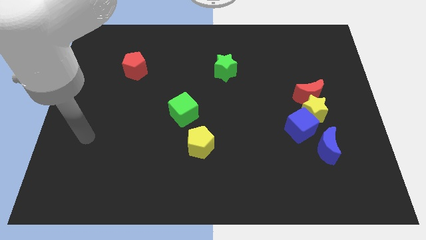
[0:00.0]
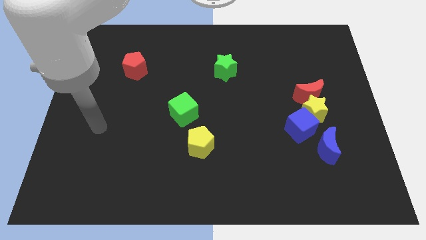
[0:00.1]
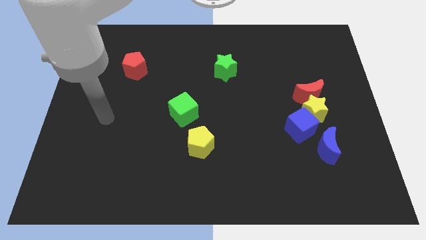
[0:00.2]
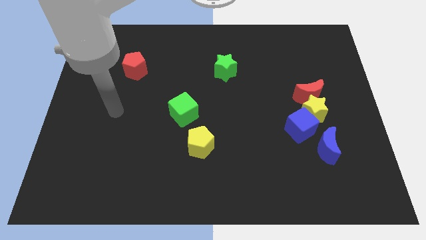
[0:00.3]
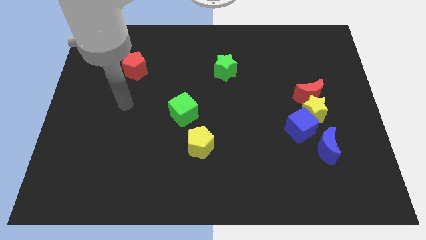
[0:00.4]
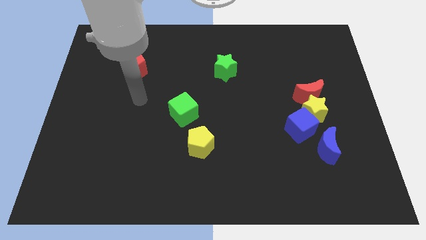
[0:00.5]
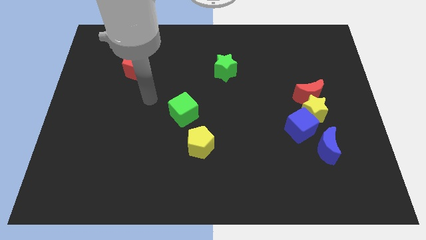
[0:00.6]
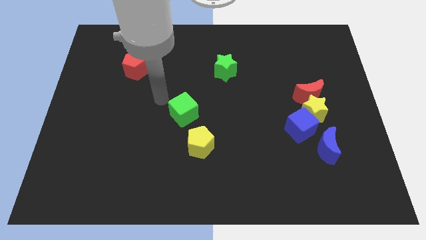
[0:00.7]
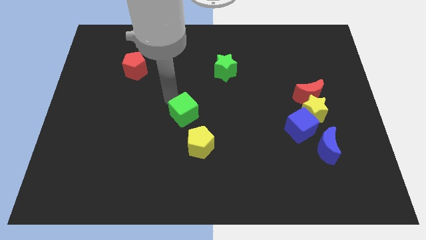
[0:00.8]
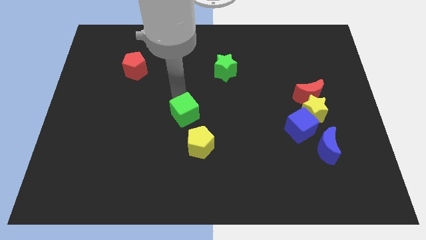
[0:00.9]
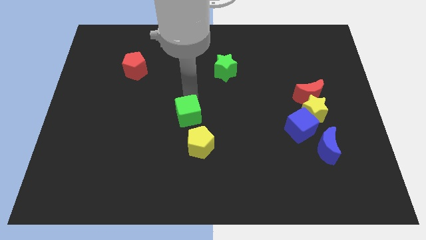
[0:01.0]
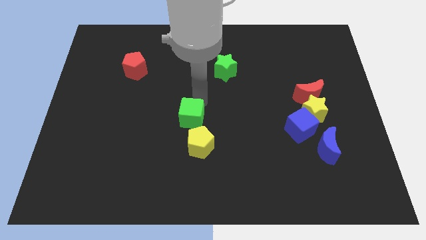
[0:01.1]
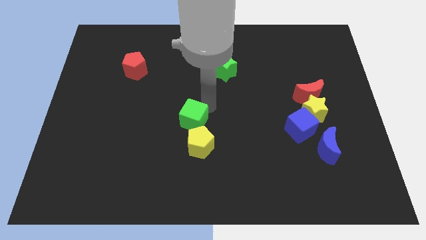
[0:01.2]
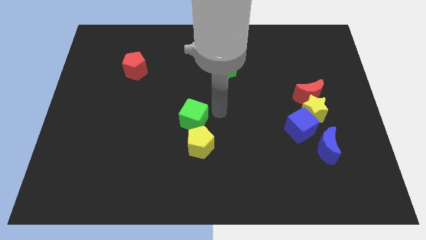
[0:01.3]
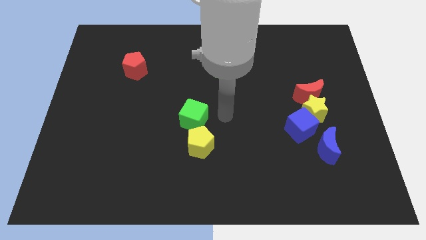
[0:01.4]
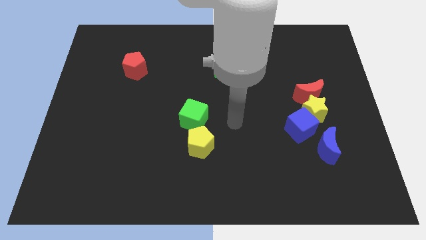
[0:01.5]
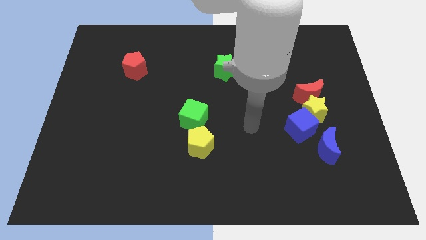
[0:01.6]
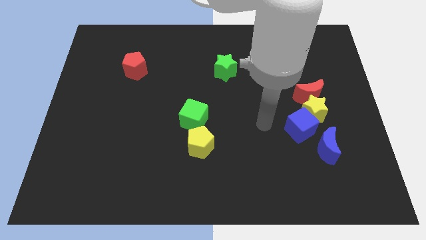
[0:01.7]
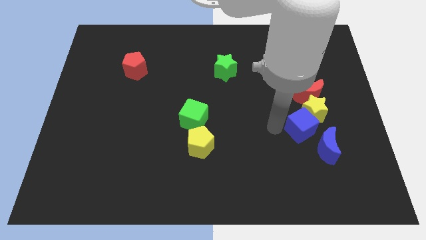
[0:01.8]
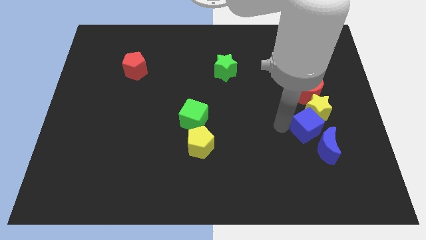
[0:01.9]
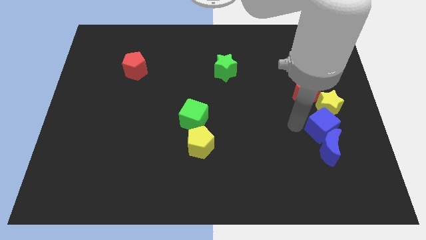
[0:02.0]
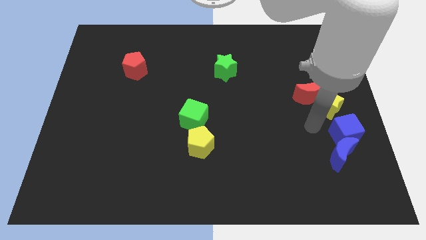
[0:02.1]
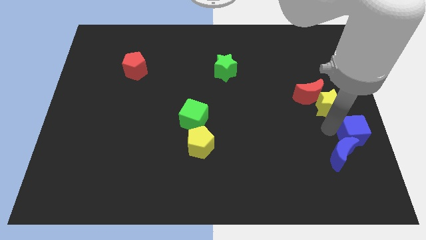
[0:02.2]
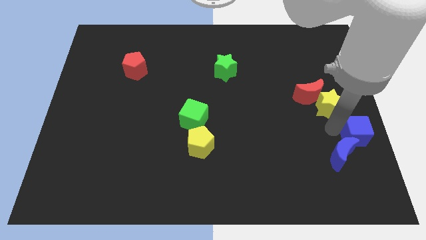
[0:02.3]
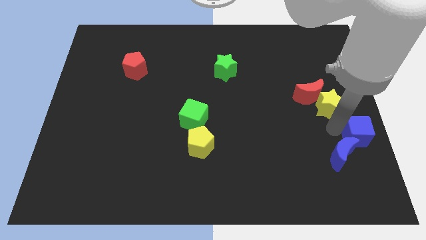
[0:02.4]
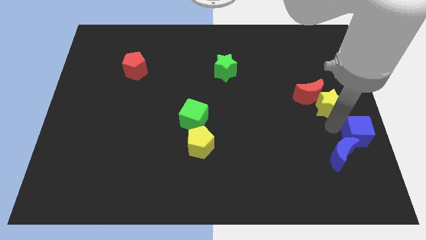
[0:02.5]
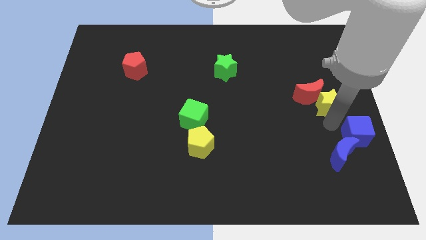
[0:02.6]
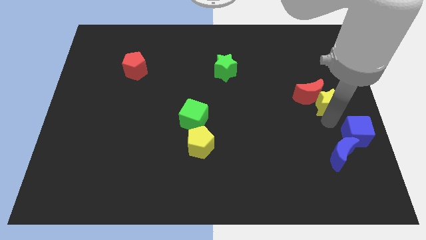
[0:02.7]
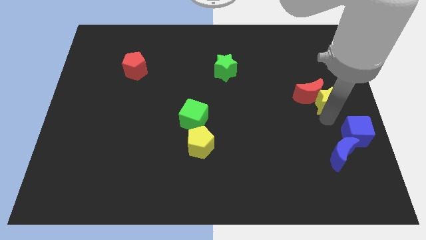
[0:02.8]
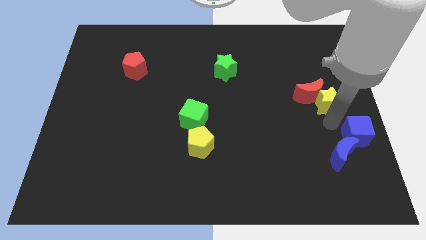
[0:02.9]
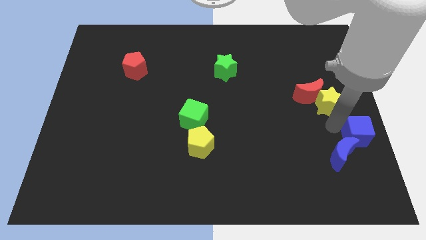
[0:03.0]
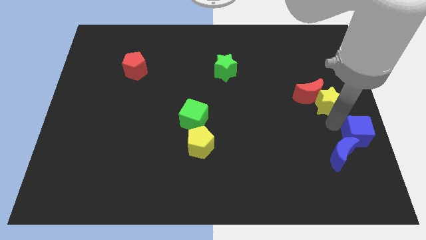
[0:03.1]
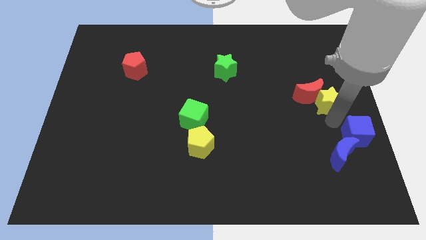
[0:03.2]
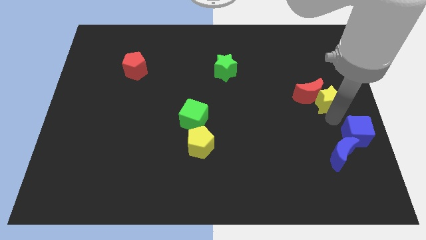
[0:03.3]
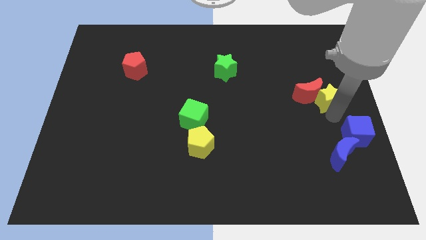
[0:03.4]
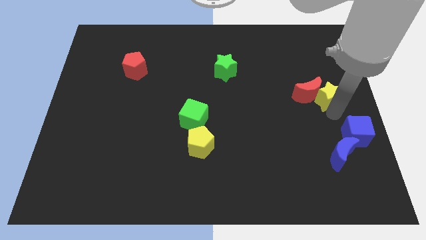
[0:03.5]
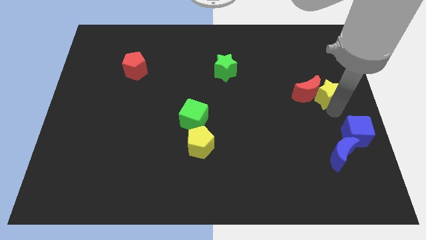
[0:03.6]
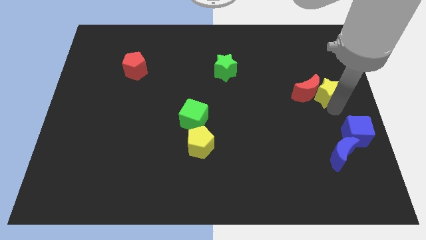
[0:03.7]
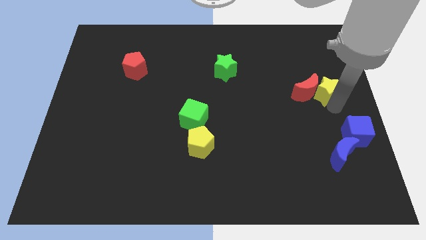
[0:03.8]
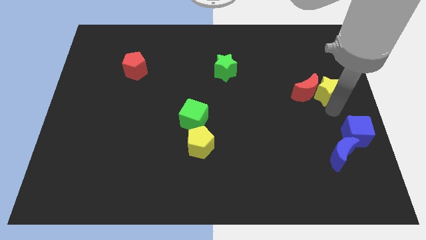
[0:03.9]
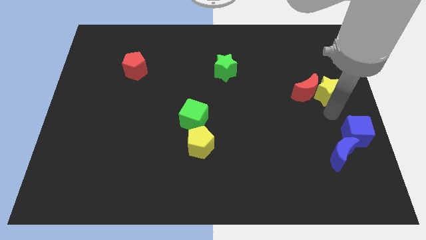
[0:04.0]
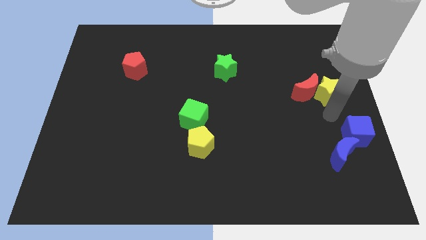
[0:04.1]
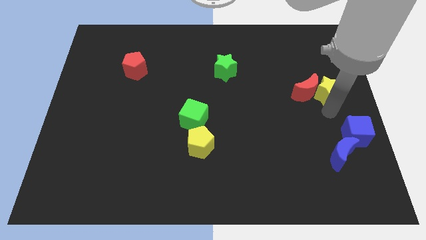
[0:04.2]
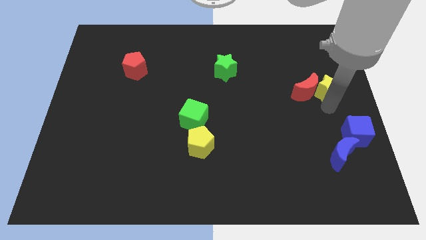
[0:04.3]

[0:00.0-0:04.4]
pull the yellow star apart from the red moon, blue cube, and blue moon

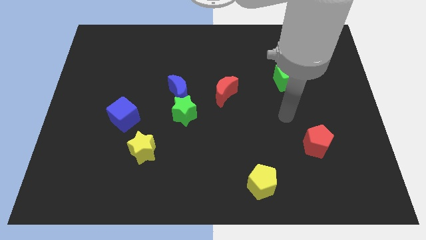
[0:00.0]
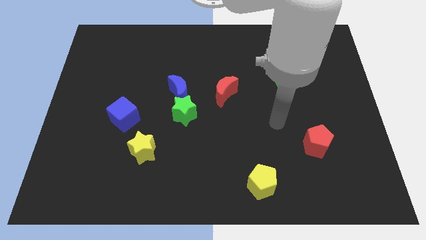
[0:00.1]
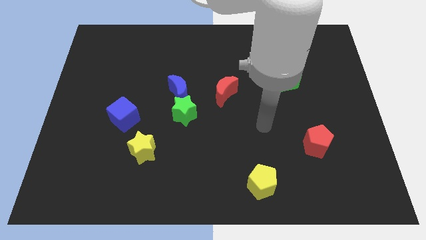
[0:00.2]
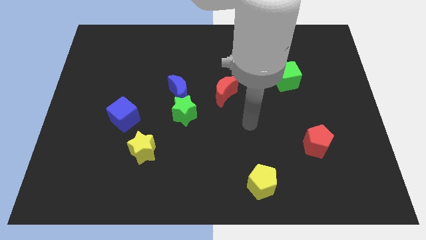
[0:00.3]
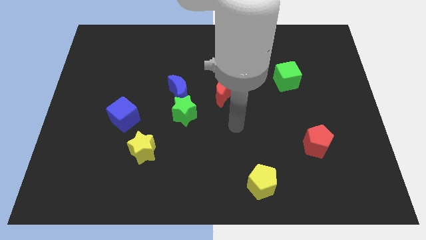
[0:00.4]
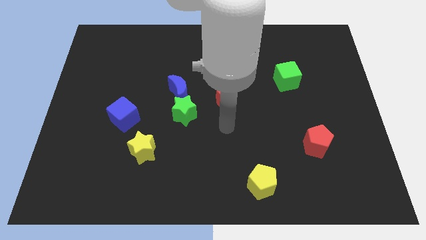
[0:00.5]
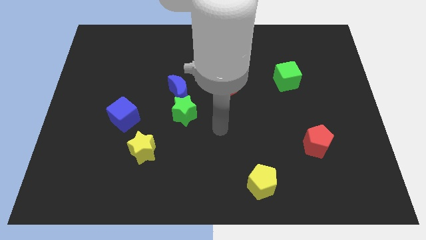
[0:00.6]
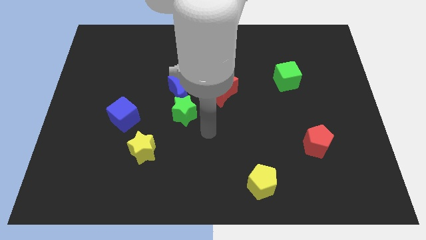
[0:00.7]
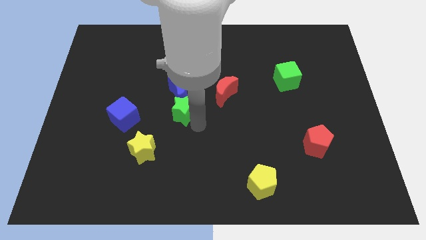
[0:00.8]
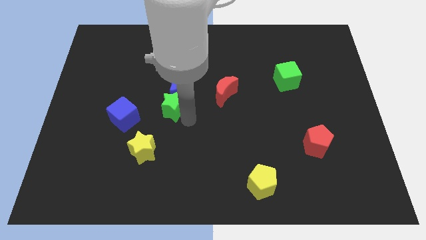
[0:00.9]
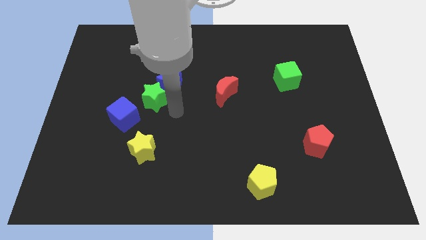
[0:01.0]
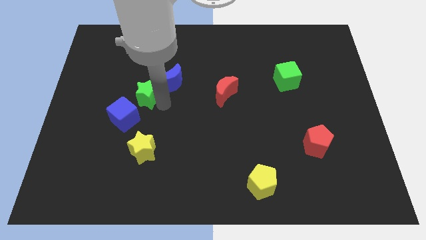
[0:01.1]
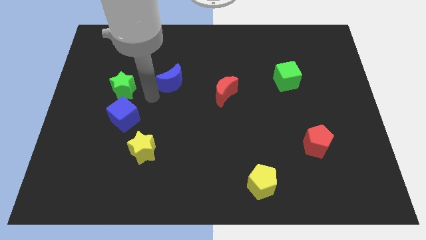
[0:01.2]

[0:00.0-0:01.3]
move the blue moon away from the green star

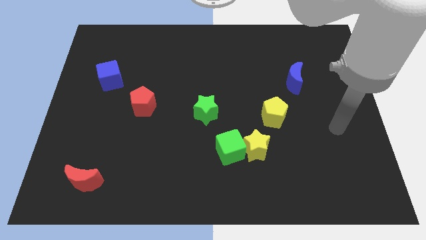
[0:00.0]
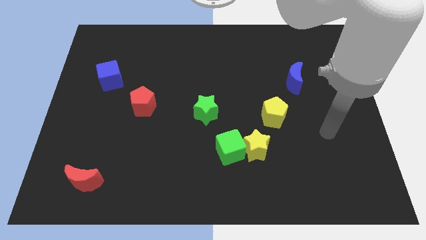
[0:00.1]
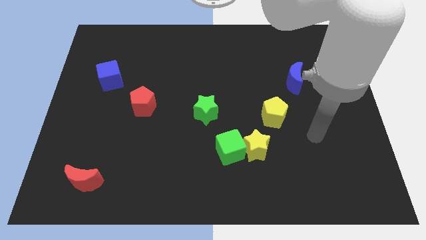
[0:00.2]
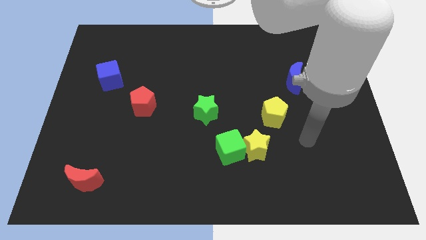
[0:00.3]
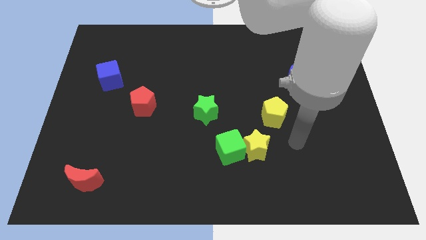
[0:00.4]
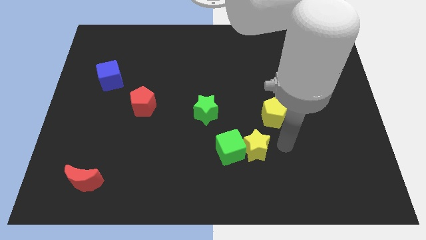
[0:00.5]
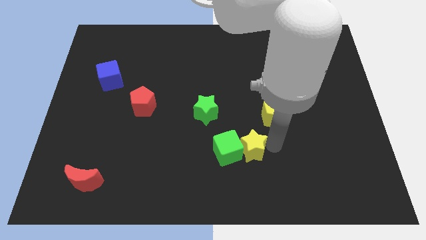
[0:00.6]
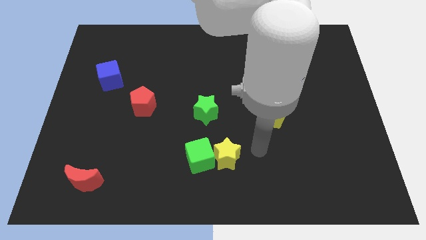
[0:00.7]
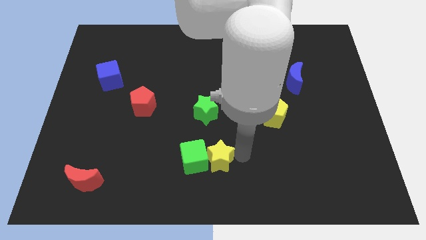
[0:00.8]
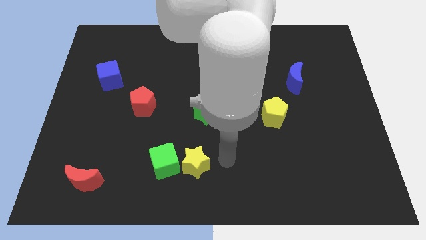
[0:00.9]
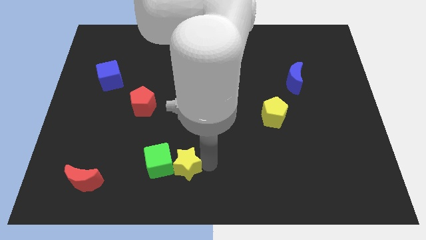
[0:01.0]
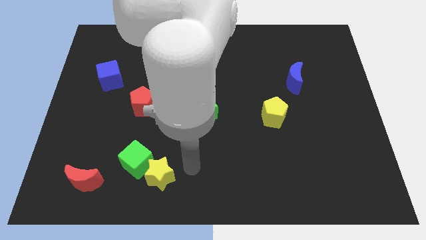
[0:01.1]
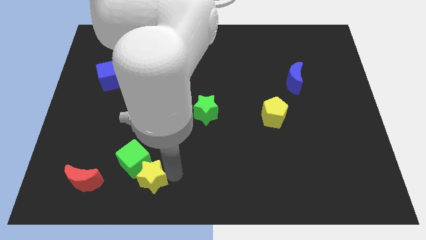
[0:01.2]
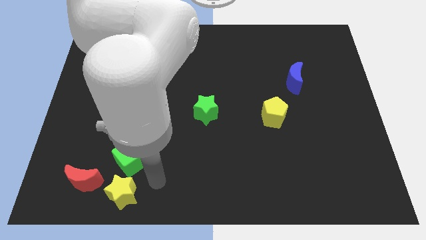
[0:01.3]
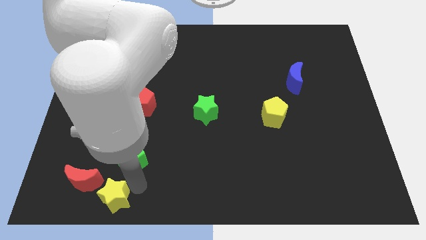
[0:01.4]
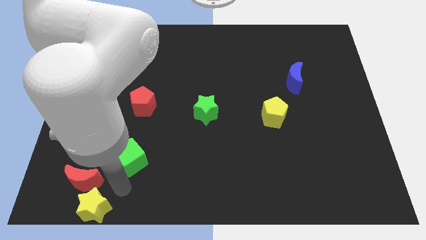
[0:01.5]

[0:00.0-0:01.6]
pull the green cube apart from the yellow star

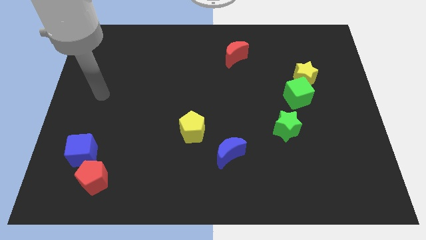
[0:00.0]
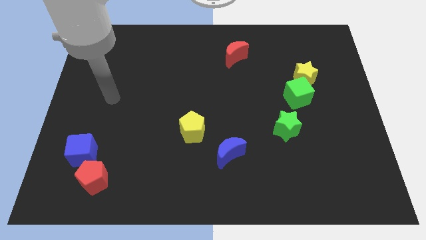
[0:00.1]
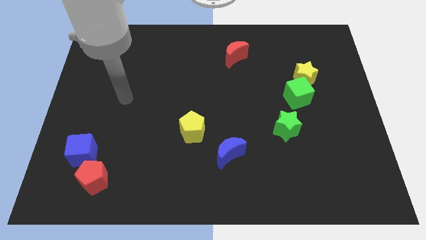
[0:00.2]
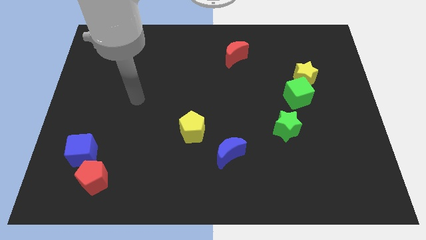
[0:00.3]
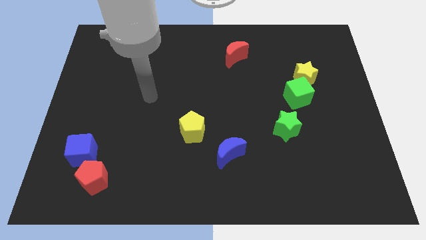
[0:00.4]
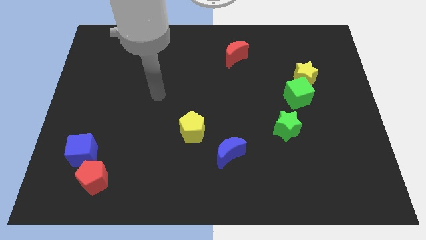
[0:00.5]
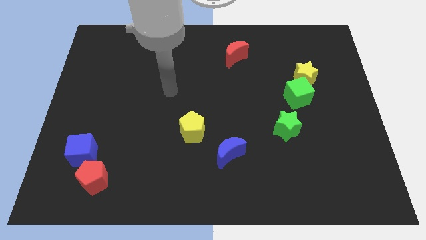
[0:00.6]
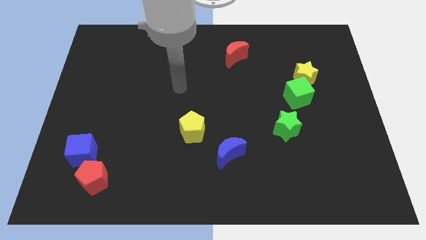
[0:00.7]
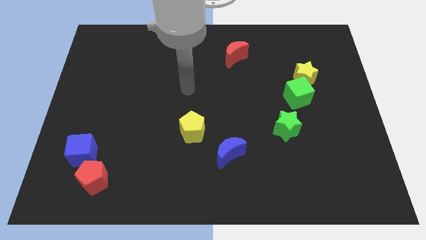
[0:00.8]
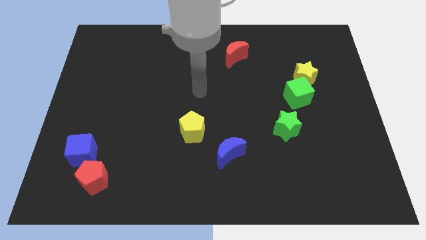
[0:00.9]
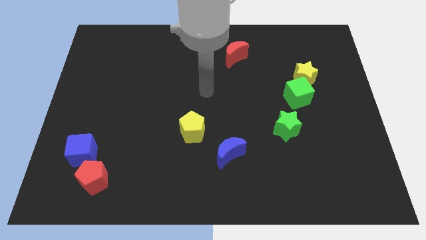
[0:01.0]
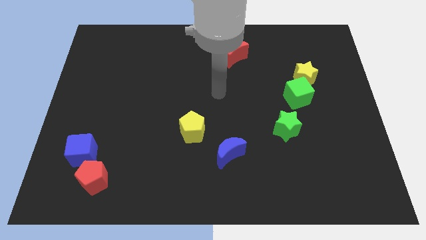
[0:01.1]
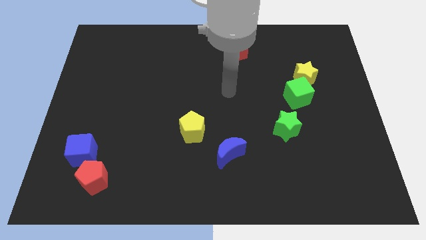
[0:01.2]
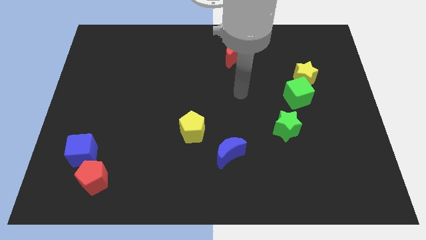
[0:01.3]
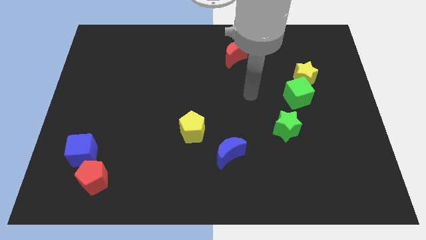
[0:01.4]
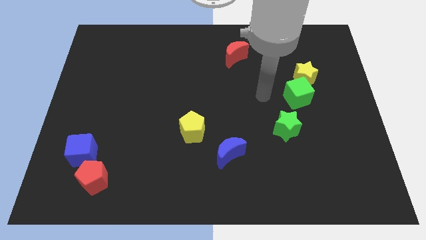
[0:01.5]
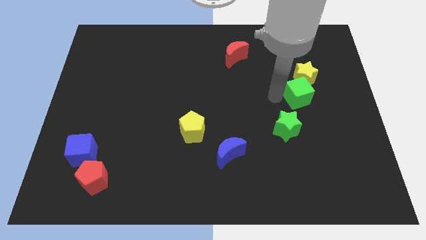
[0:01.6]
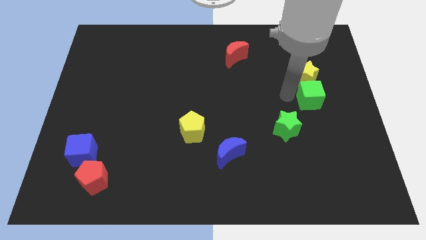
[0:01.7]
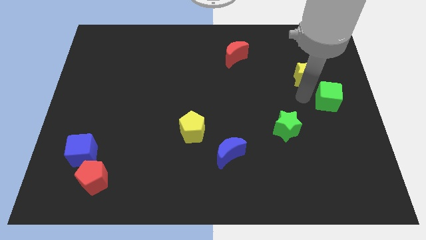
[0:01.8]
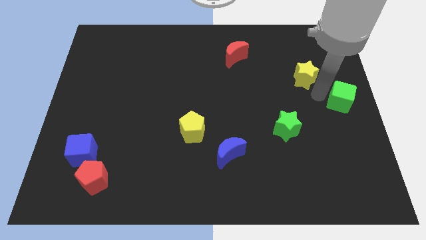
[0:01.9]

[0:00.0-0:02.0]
pull the yellow star apart from the green cube

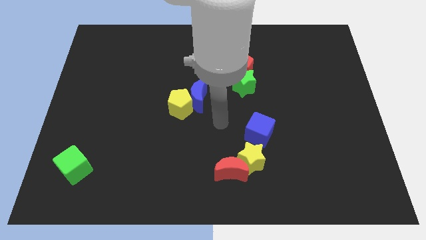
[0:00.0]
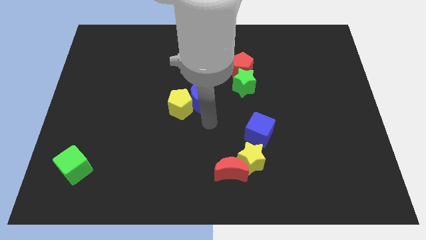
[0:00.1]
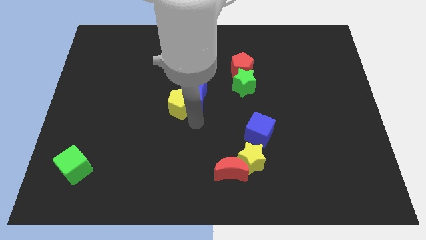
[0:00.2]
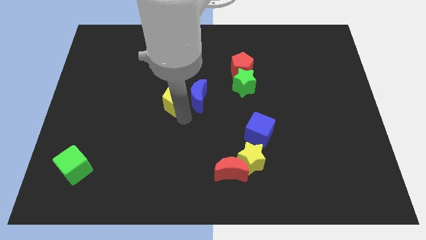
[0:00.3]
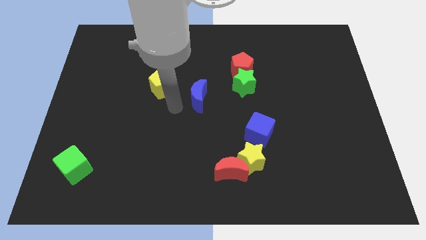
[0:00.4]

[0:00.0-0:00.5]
separate the blue moon from the yellow pentagon
